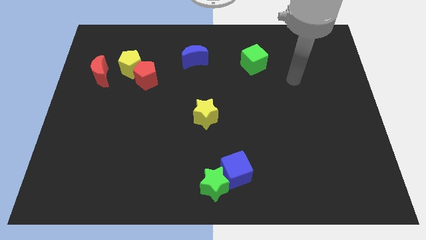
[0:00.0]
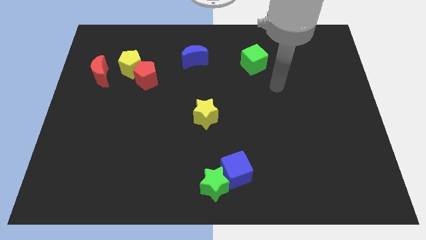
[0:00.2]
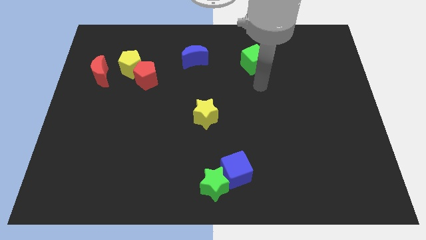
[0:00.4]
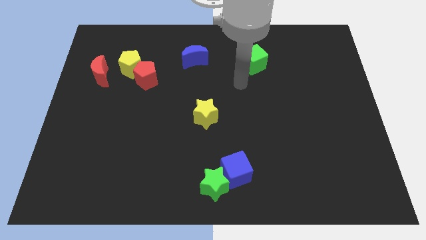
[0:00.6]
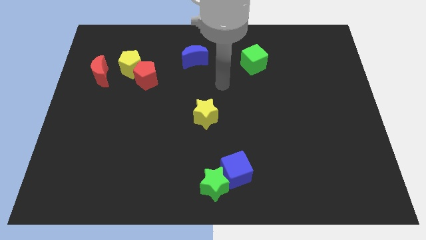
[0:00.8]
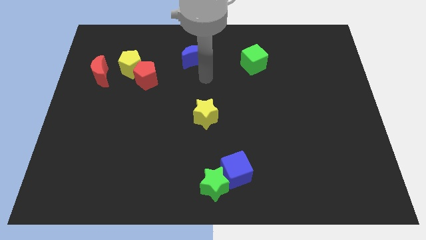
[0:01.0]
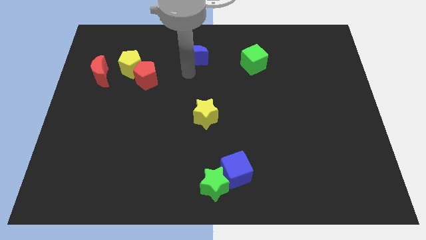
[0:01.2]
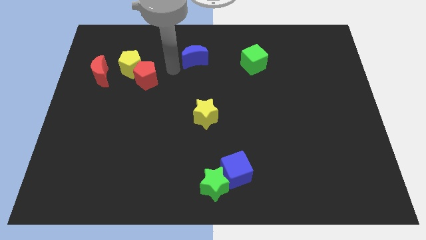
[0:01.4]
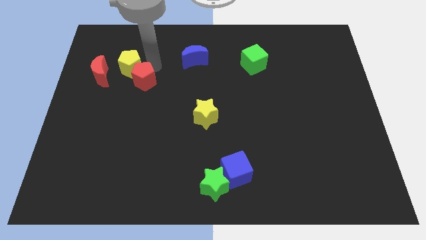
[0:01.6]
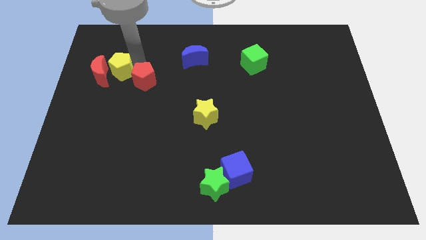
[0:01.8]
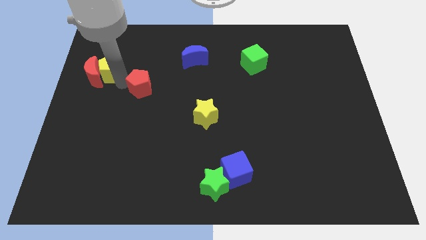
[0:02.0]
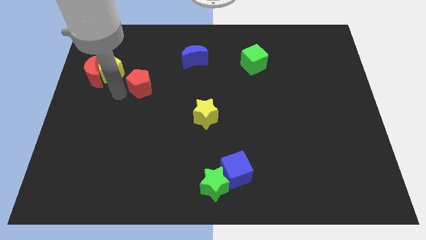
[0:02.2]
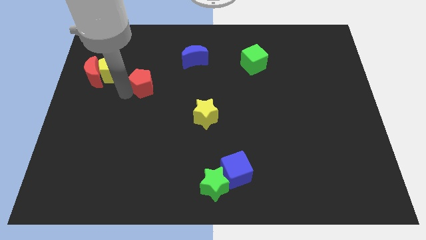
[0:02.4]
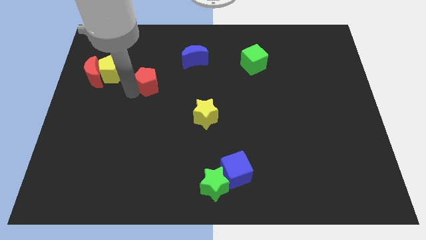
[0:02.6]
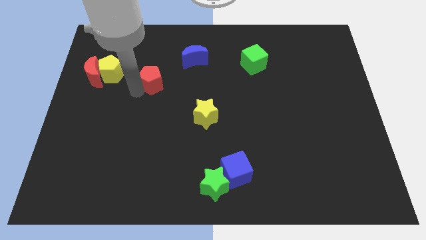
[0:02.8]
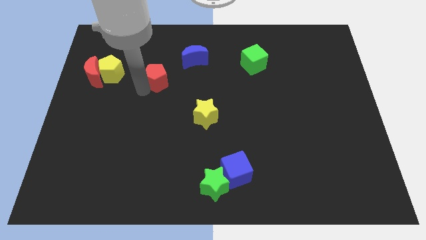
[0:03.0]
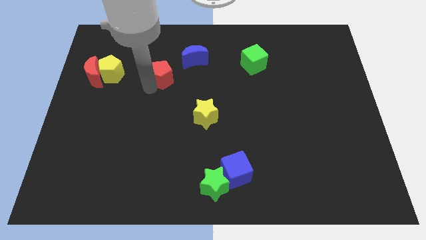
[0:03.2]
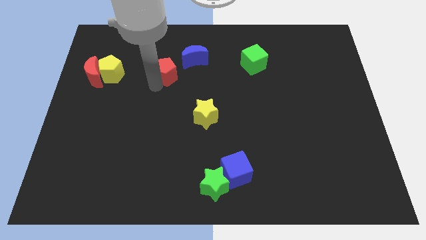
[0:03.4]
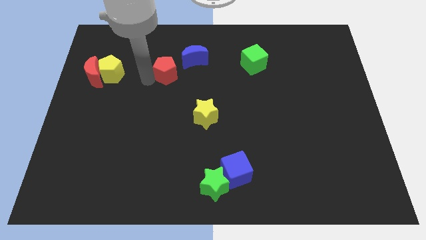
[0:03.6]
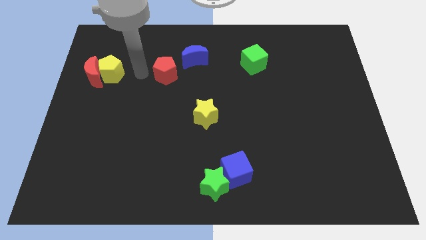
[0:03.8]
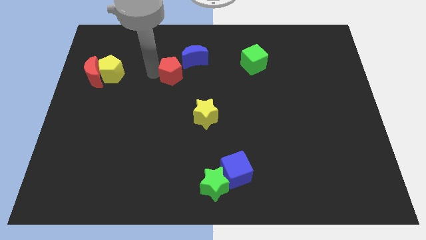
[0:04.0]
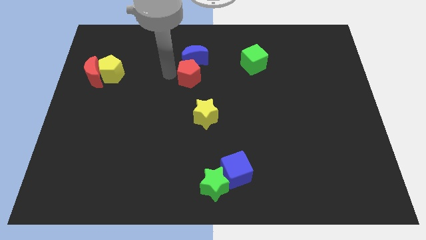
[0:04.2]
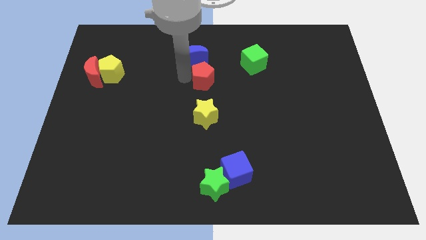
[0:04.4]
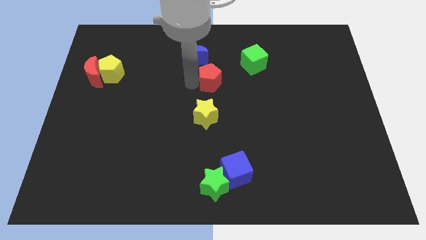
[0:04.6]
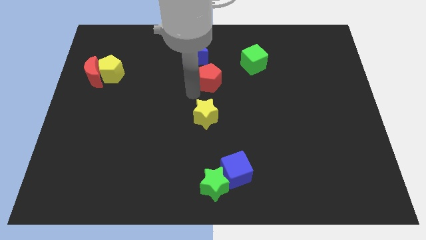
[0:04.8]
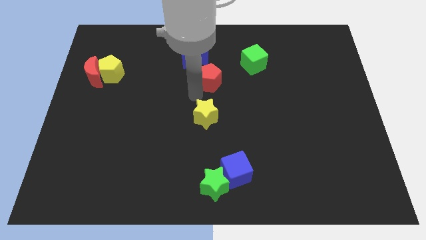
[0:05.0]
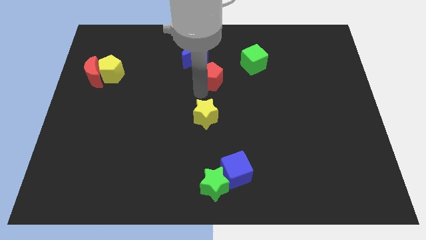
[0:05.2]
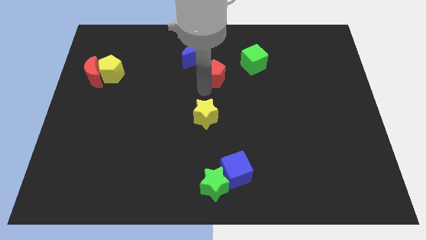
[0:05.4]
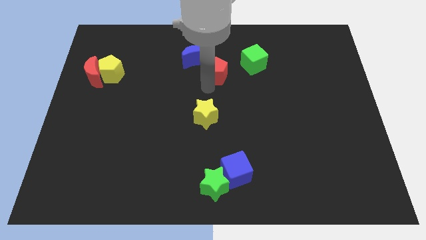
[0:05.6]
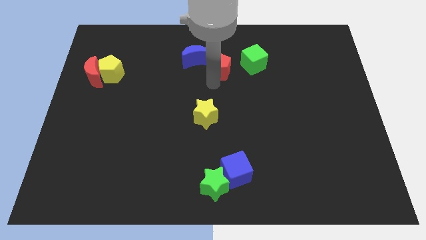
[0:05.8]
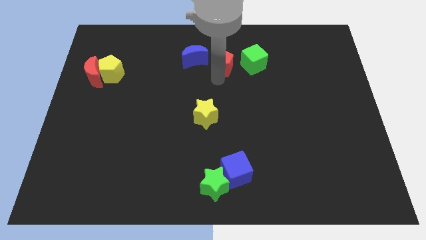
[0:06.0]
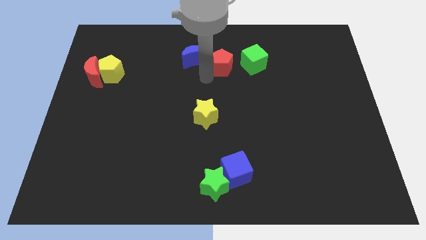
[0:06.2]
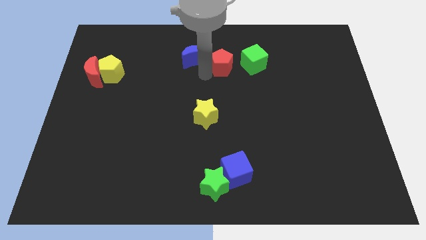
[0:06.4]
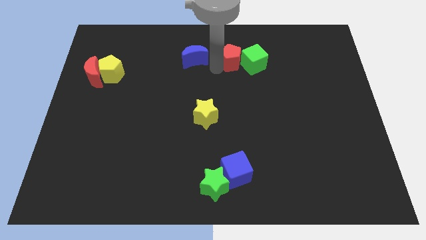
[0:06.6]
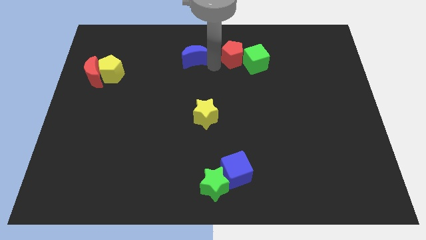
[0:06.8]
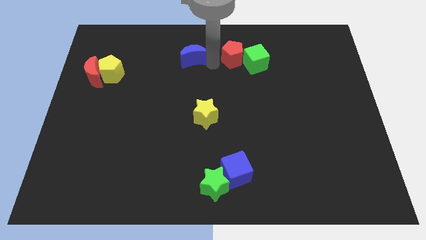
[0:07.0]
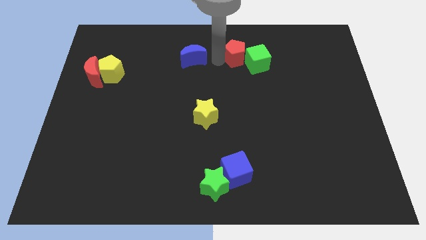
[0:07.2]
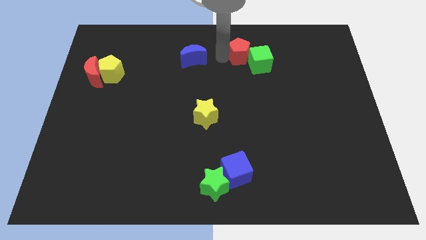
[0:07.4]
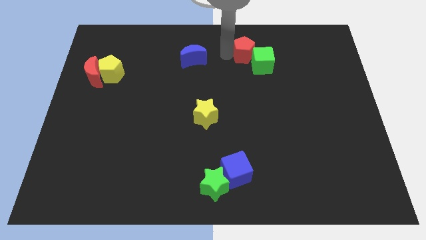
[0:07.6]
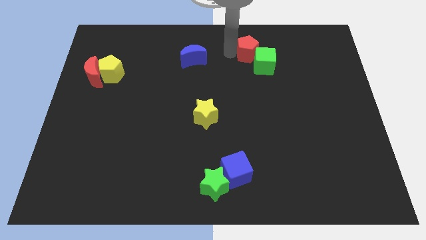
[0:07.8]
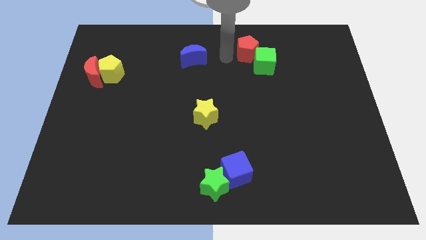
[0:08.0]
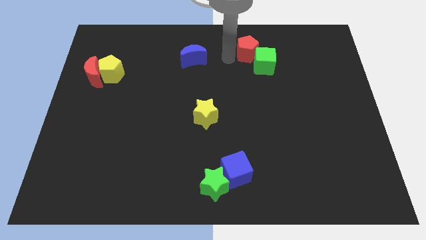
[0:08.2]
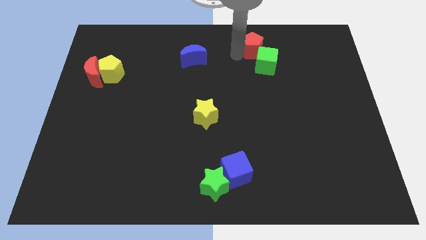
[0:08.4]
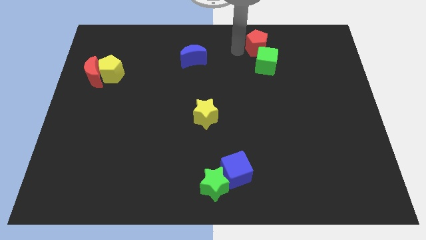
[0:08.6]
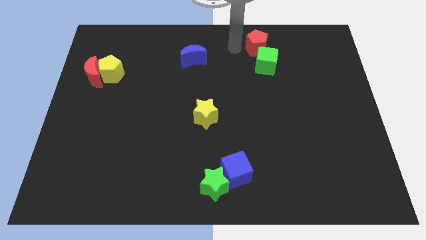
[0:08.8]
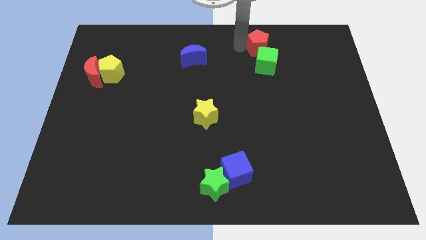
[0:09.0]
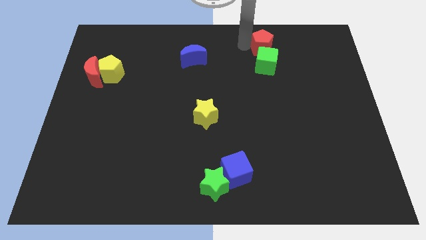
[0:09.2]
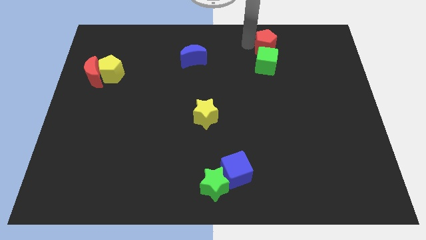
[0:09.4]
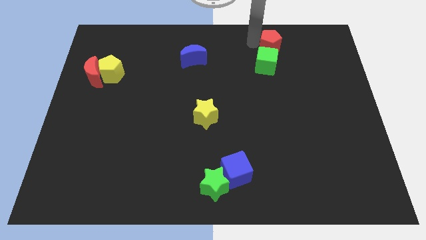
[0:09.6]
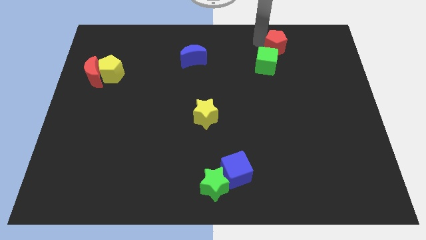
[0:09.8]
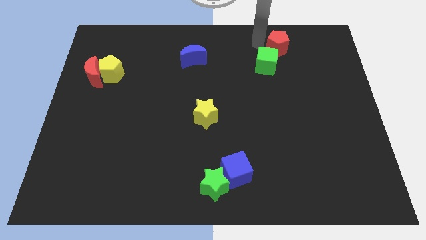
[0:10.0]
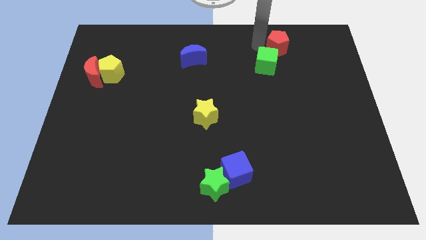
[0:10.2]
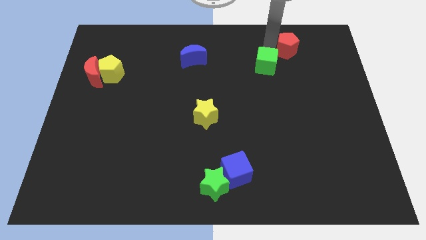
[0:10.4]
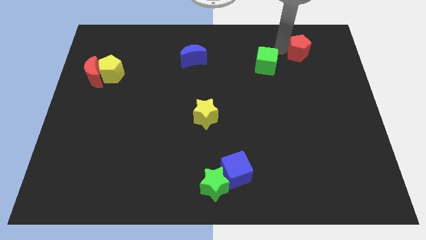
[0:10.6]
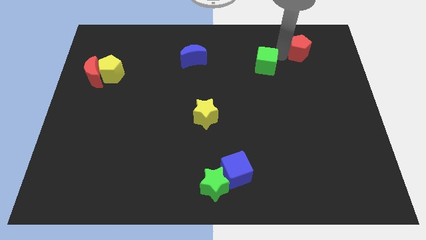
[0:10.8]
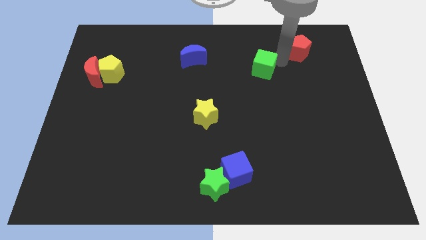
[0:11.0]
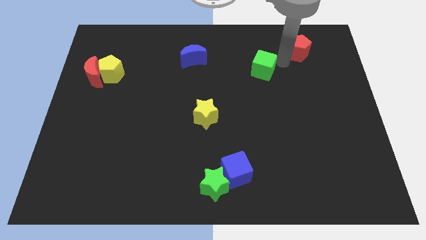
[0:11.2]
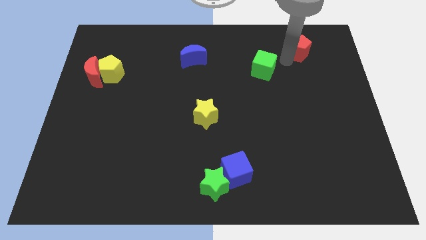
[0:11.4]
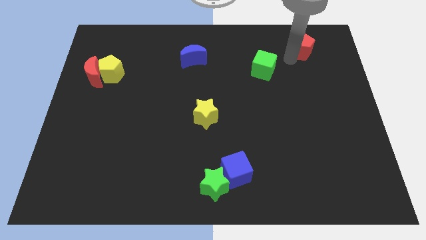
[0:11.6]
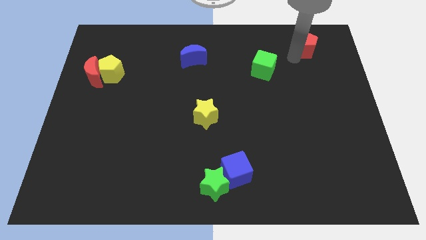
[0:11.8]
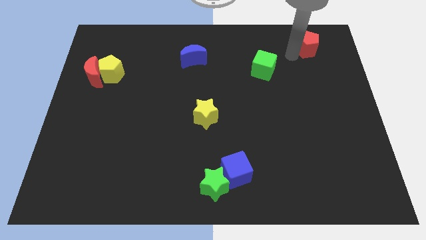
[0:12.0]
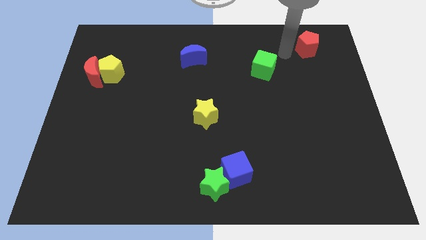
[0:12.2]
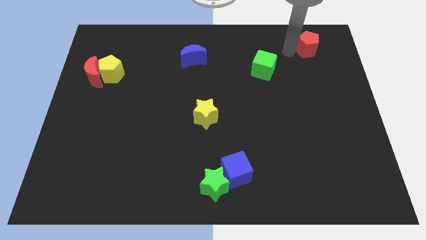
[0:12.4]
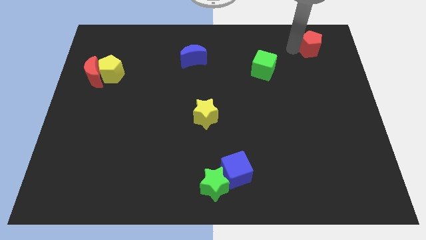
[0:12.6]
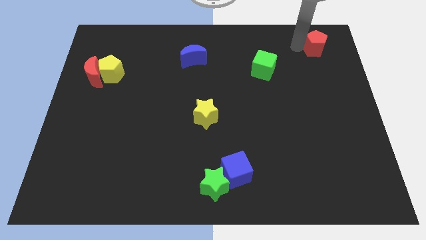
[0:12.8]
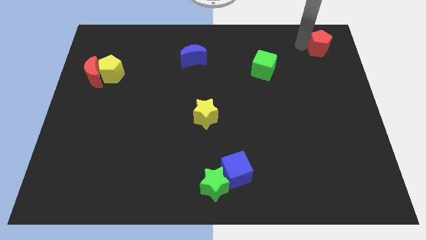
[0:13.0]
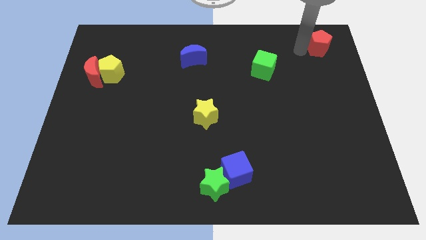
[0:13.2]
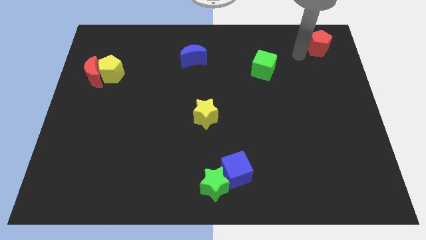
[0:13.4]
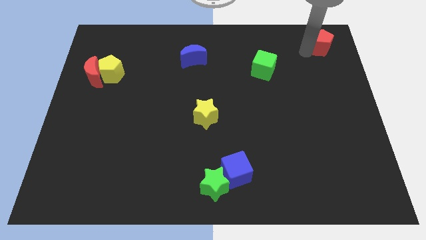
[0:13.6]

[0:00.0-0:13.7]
slide the red pentagon to the top right of the board
